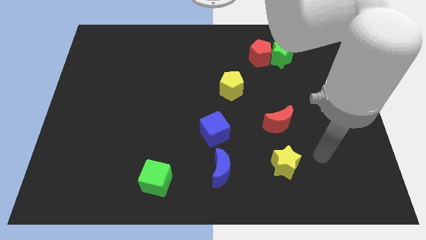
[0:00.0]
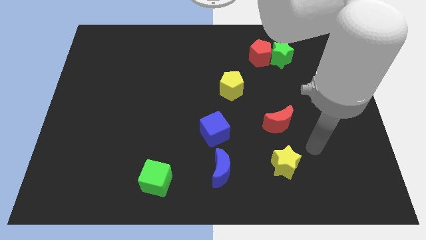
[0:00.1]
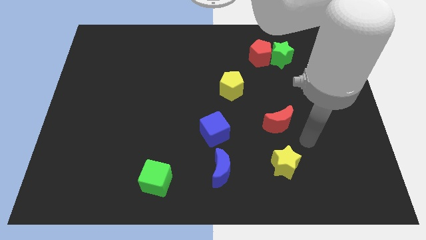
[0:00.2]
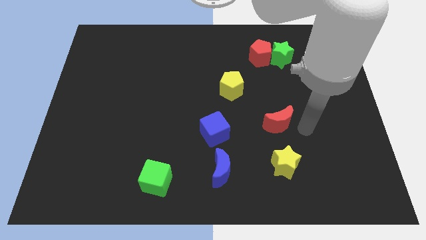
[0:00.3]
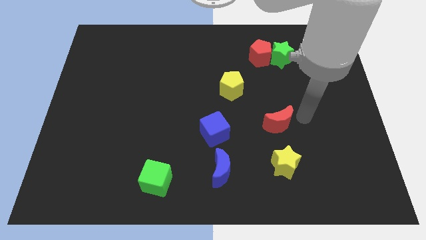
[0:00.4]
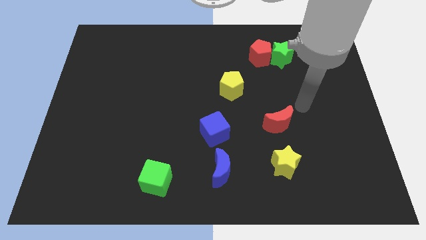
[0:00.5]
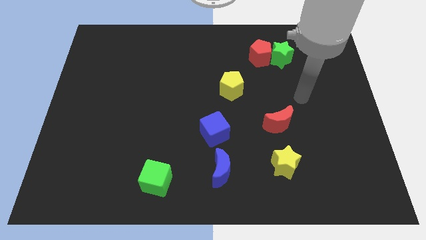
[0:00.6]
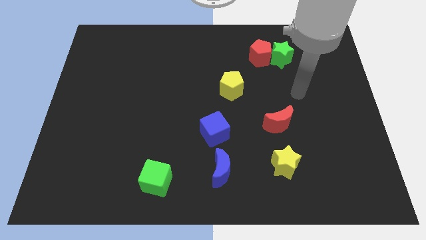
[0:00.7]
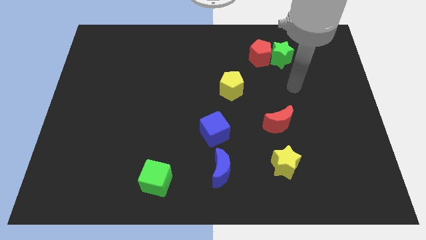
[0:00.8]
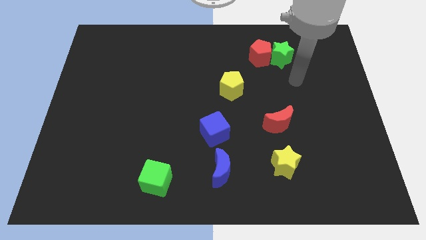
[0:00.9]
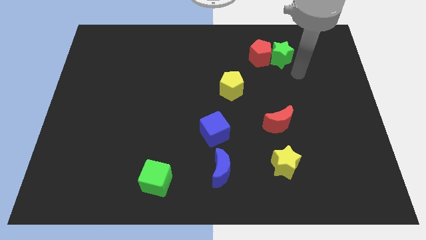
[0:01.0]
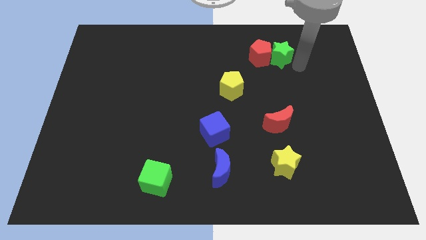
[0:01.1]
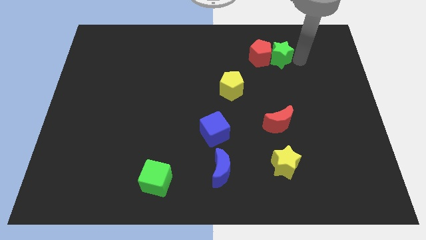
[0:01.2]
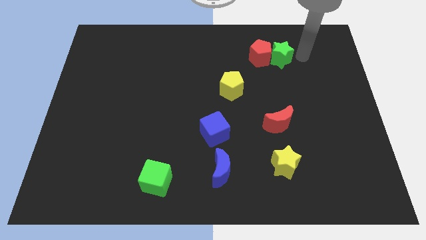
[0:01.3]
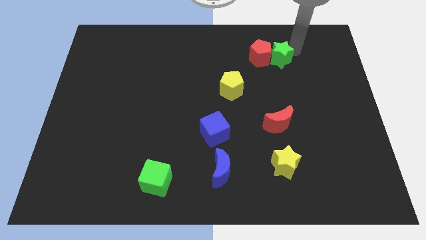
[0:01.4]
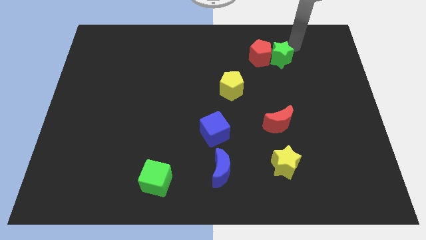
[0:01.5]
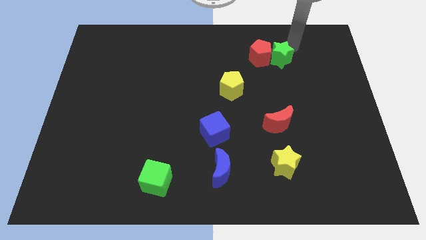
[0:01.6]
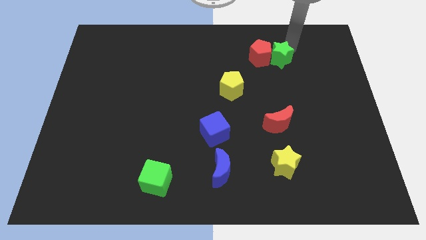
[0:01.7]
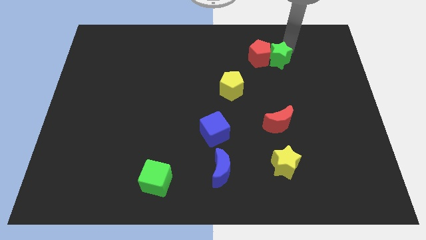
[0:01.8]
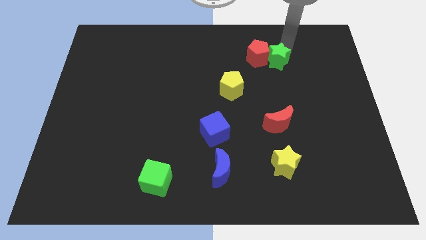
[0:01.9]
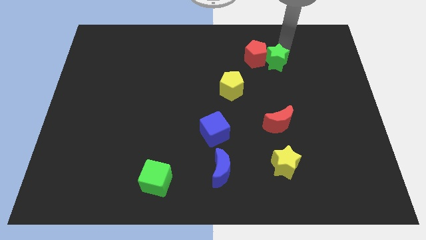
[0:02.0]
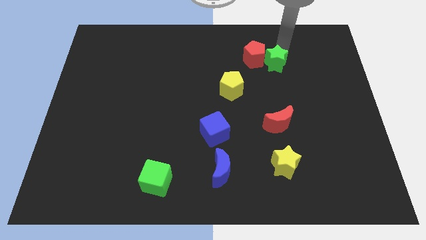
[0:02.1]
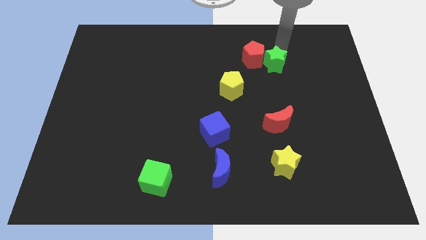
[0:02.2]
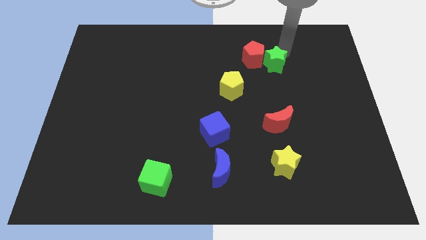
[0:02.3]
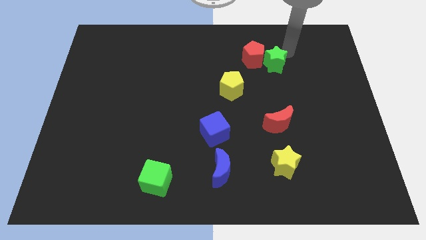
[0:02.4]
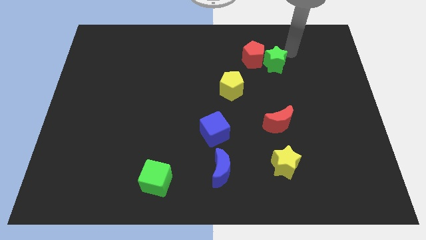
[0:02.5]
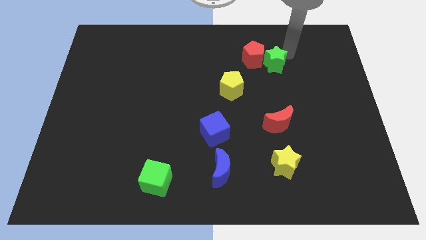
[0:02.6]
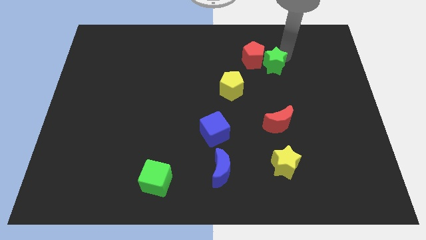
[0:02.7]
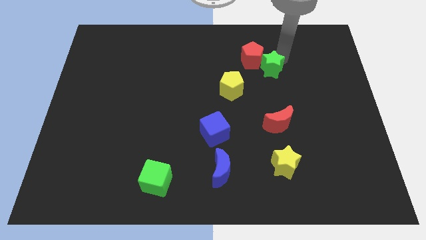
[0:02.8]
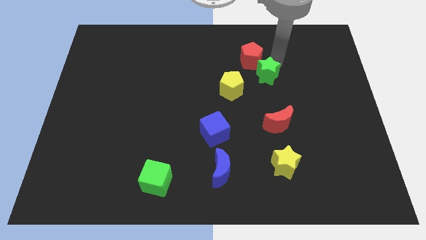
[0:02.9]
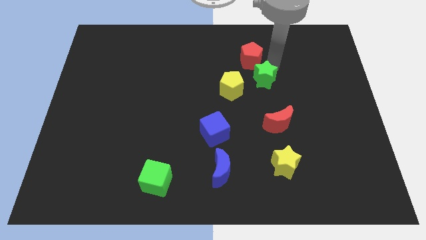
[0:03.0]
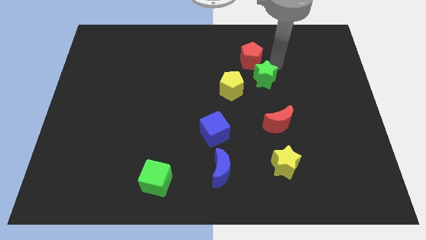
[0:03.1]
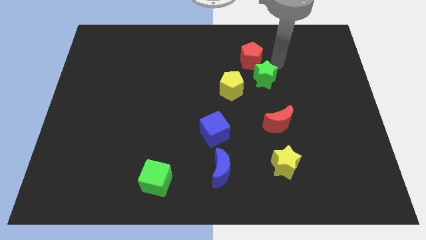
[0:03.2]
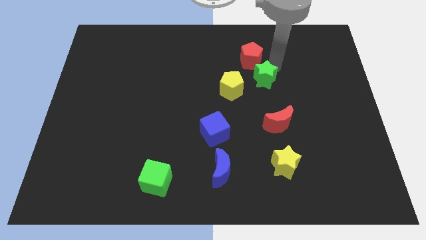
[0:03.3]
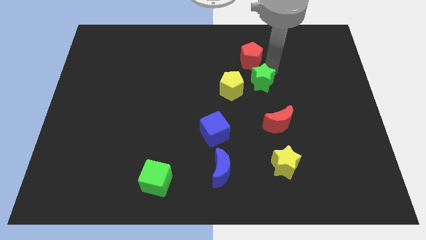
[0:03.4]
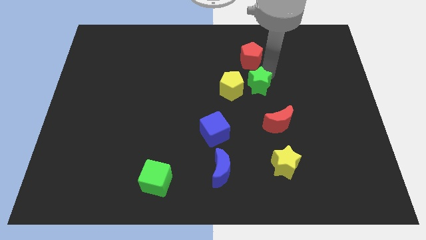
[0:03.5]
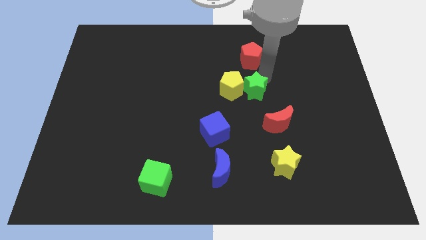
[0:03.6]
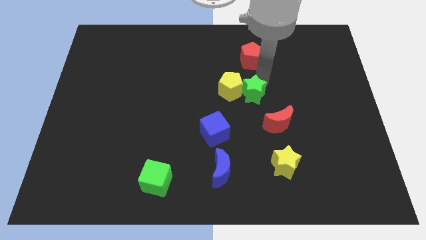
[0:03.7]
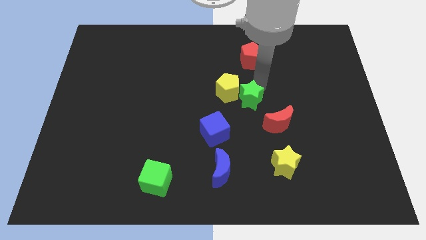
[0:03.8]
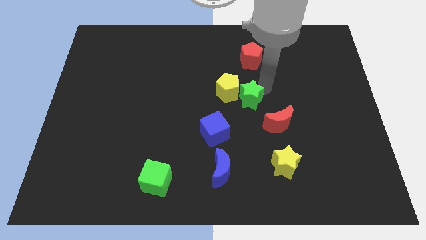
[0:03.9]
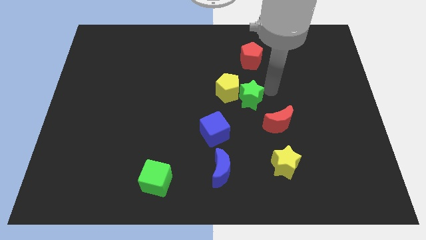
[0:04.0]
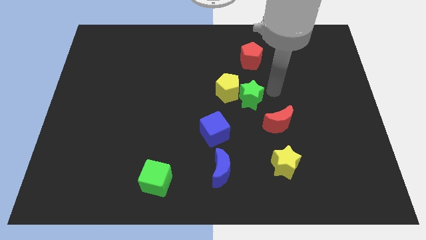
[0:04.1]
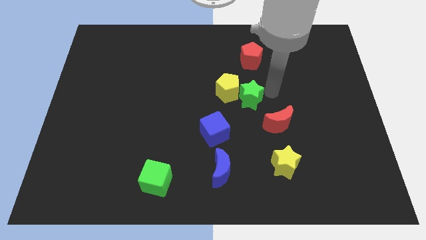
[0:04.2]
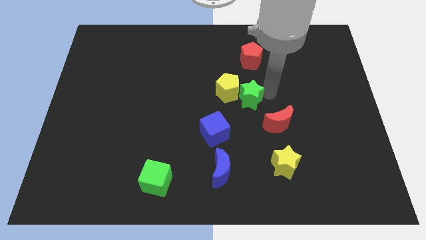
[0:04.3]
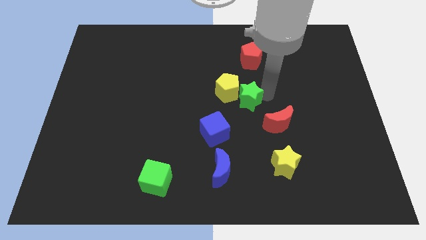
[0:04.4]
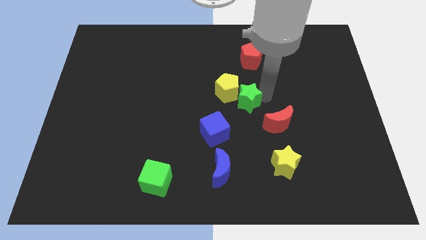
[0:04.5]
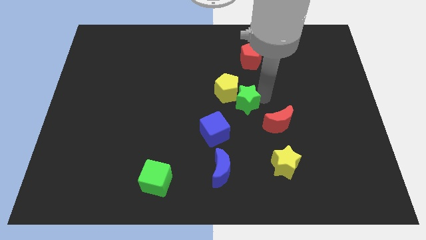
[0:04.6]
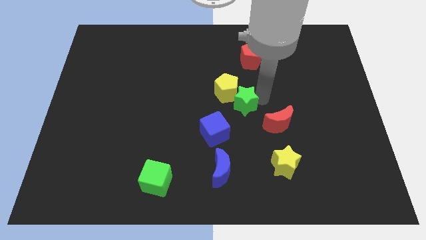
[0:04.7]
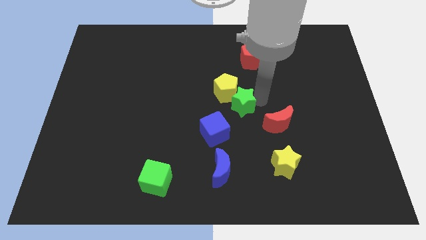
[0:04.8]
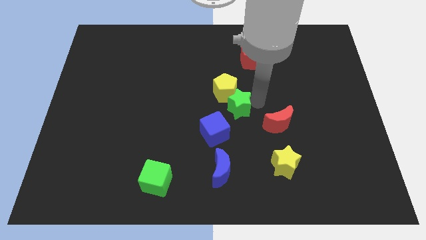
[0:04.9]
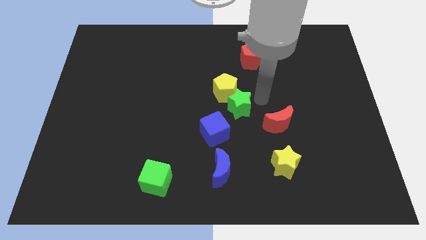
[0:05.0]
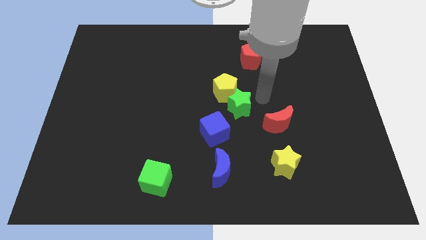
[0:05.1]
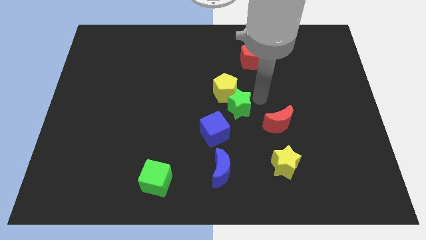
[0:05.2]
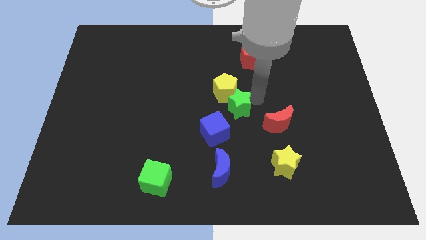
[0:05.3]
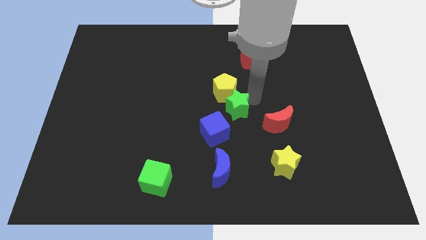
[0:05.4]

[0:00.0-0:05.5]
push the green star down and then left

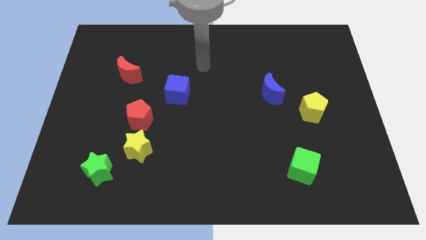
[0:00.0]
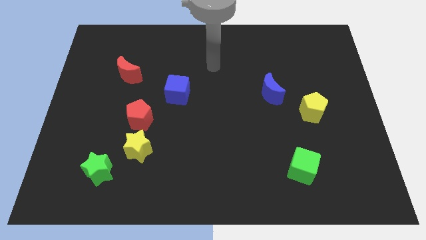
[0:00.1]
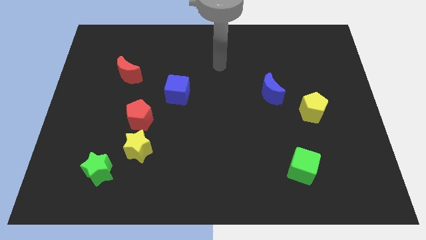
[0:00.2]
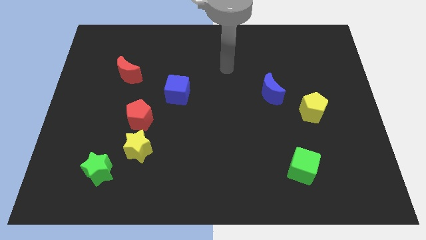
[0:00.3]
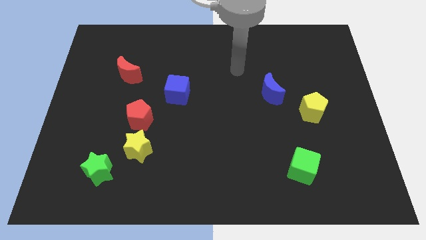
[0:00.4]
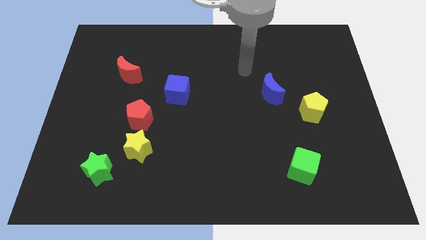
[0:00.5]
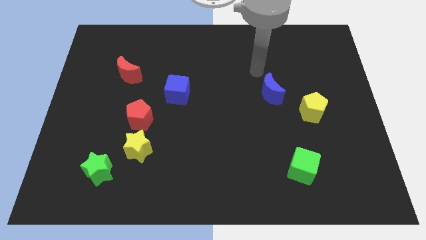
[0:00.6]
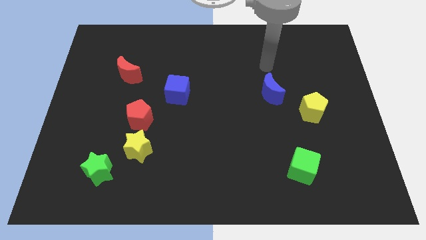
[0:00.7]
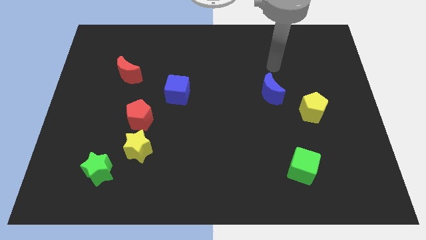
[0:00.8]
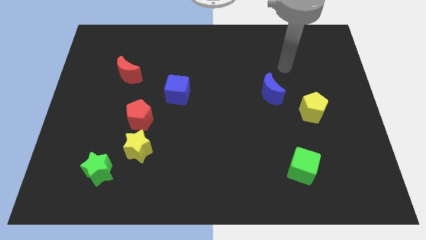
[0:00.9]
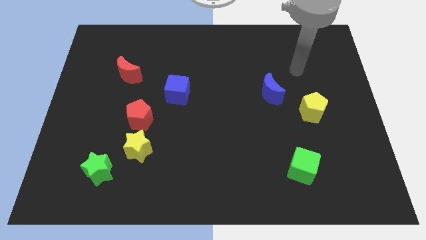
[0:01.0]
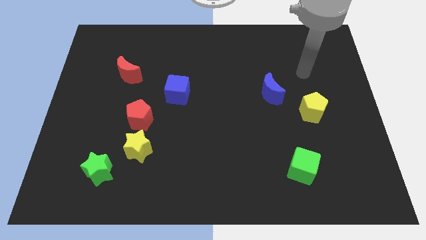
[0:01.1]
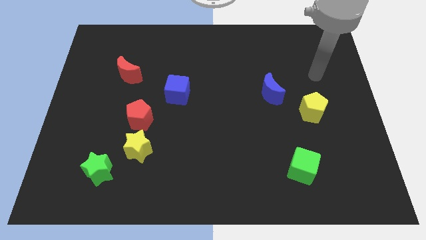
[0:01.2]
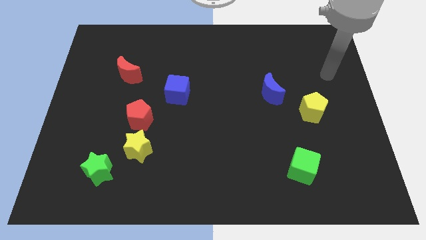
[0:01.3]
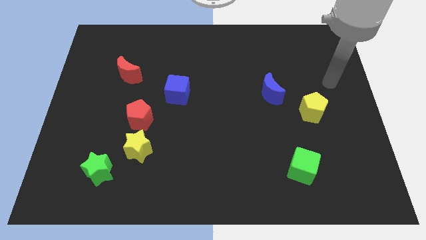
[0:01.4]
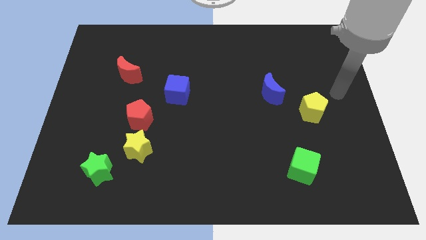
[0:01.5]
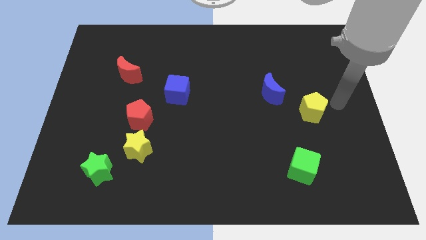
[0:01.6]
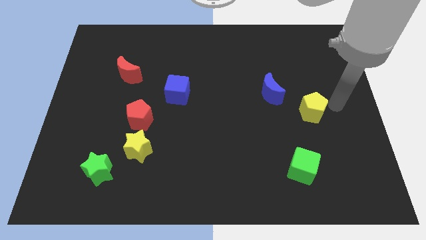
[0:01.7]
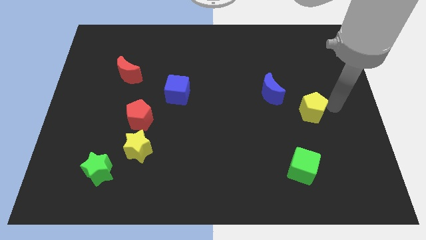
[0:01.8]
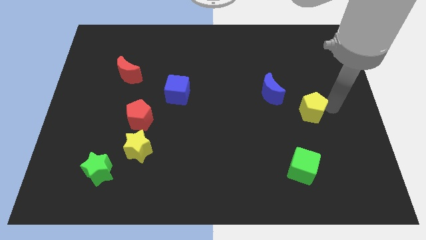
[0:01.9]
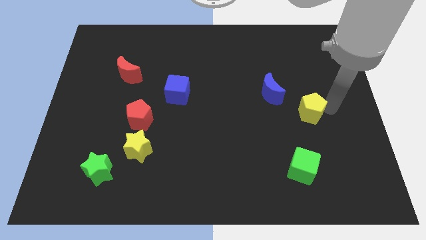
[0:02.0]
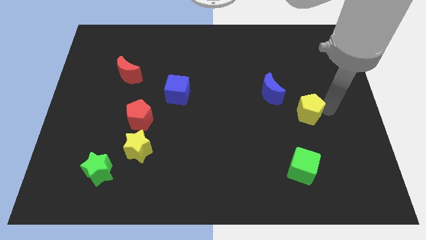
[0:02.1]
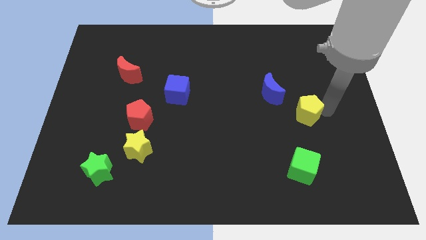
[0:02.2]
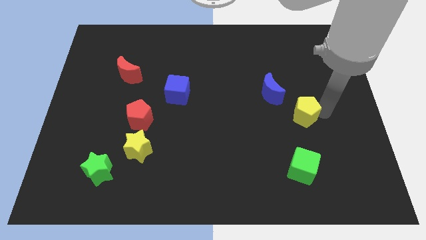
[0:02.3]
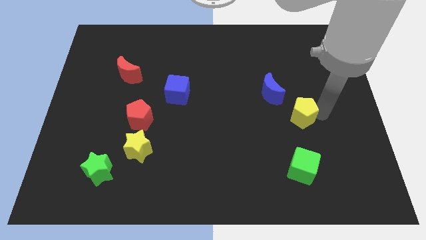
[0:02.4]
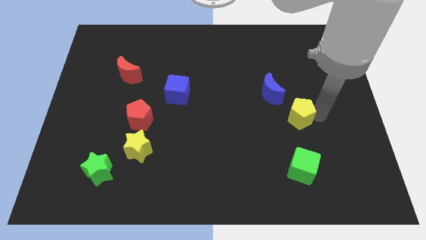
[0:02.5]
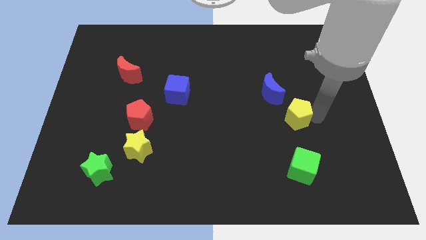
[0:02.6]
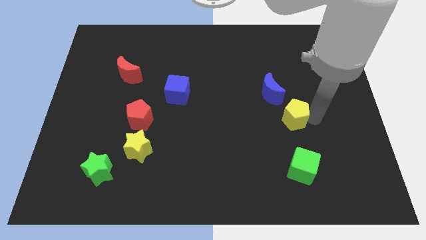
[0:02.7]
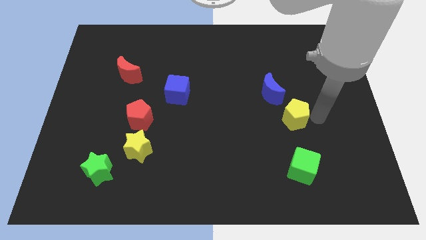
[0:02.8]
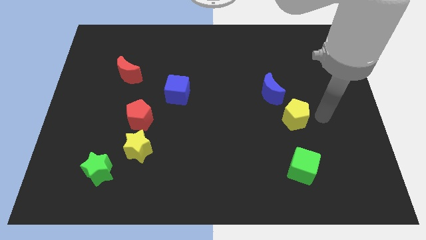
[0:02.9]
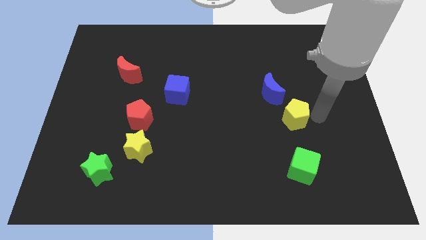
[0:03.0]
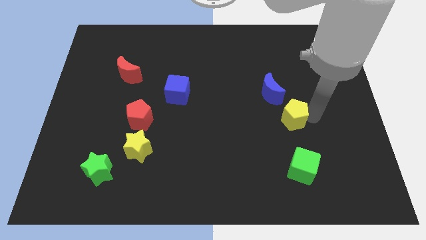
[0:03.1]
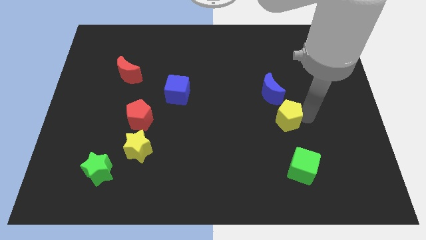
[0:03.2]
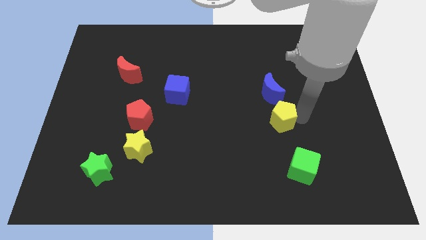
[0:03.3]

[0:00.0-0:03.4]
move the yellow pentagon to the left a bit
